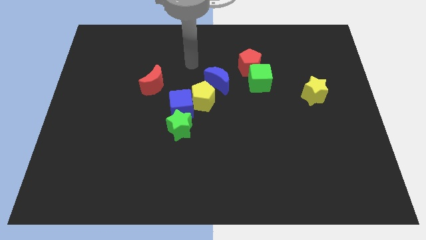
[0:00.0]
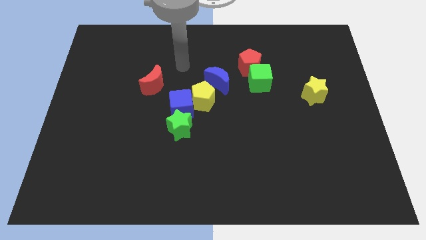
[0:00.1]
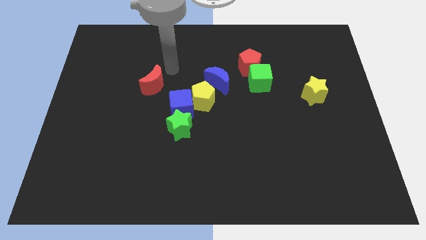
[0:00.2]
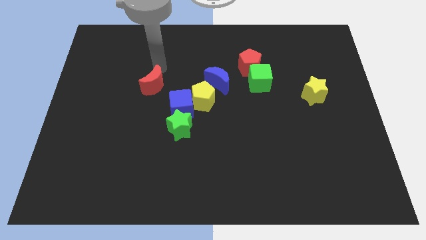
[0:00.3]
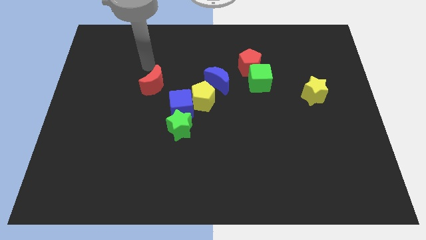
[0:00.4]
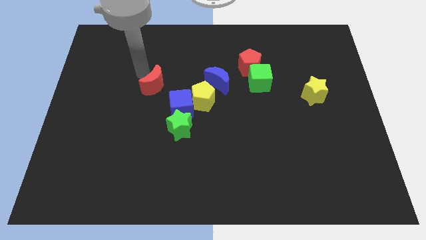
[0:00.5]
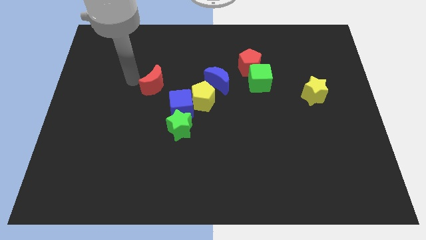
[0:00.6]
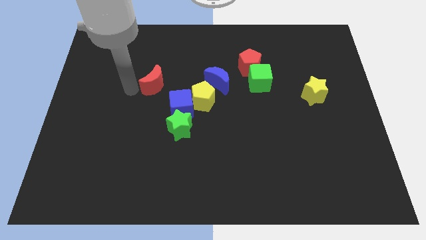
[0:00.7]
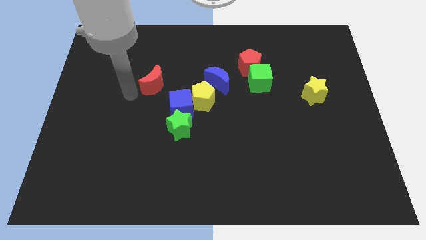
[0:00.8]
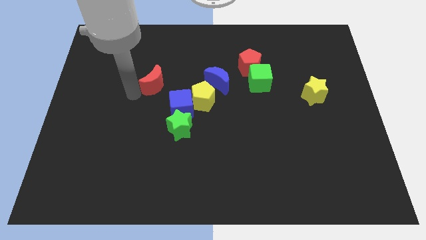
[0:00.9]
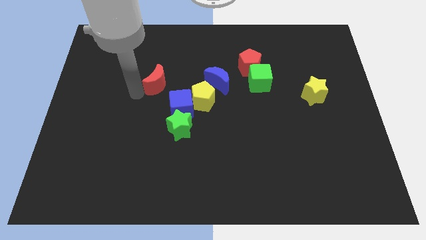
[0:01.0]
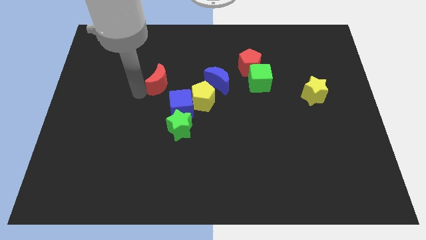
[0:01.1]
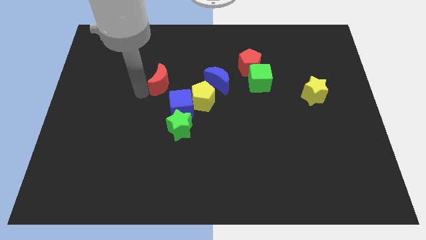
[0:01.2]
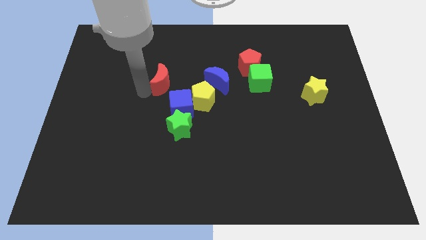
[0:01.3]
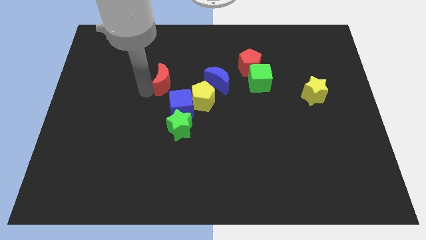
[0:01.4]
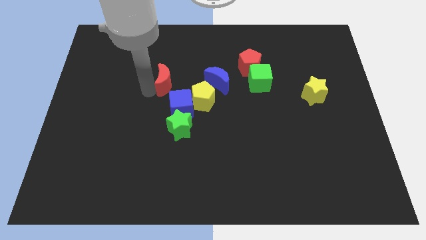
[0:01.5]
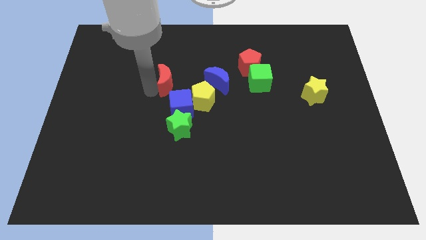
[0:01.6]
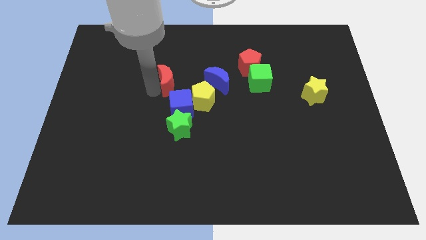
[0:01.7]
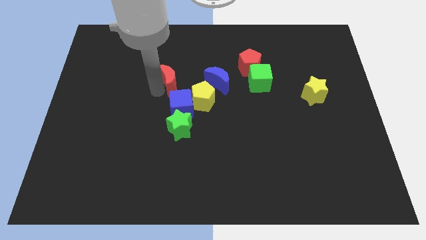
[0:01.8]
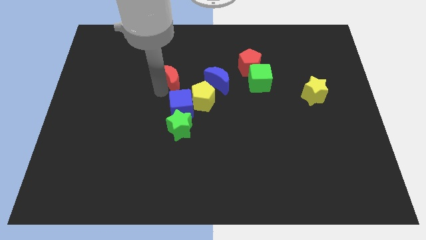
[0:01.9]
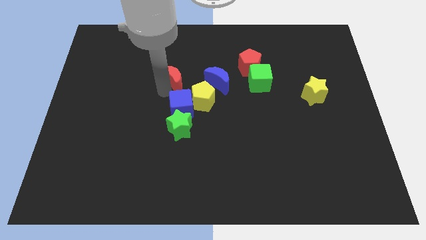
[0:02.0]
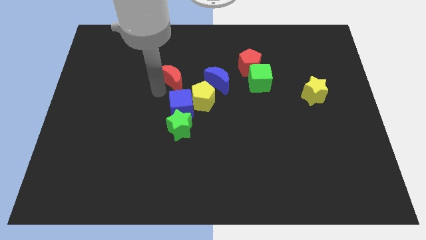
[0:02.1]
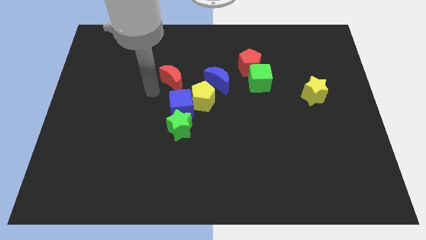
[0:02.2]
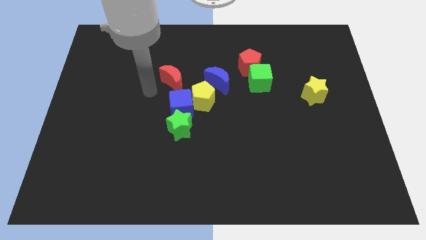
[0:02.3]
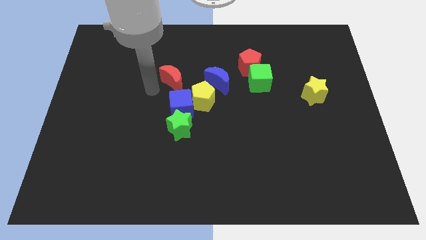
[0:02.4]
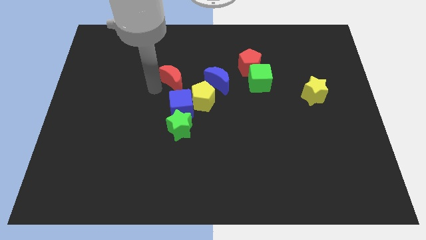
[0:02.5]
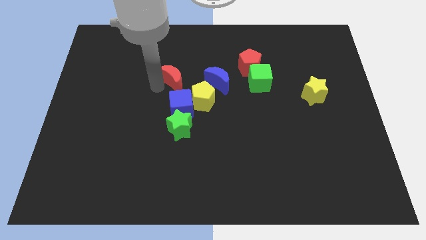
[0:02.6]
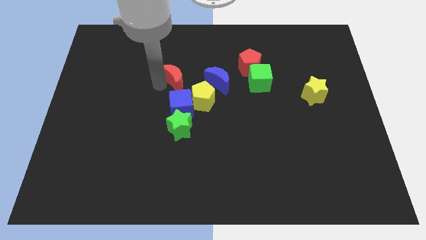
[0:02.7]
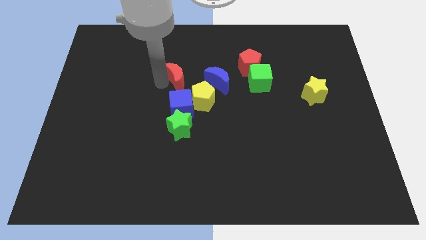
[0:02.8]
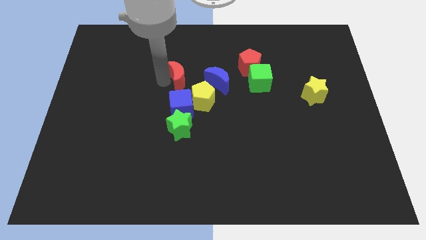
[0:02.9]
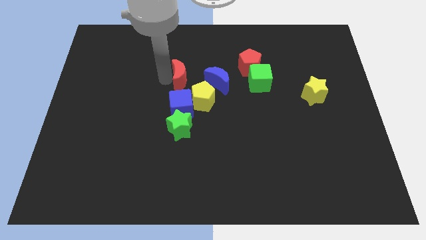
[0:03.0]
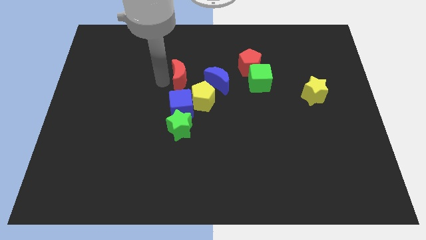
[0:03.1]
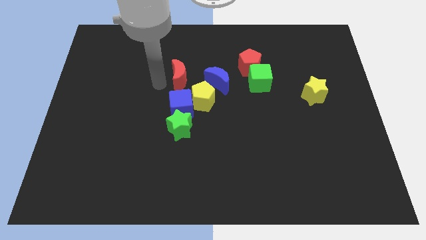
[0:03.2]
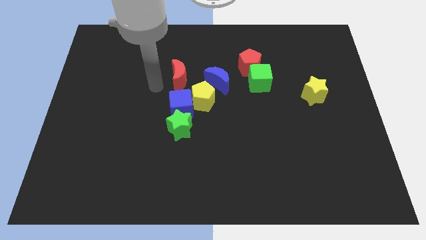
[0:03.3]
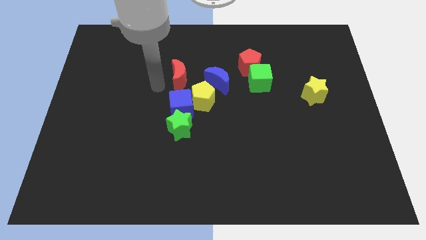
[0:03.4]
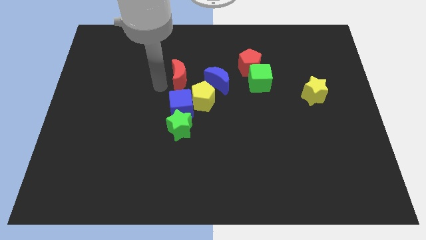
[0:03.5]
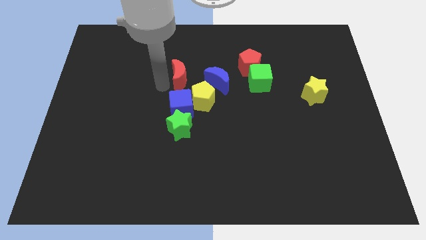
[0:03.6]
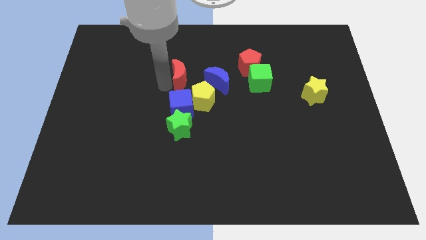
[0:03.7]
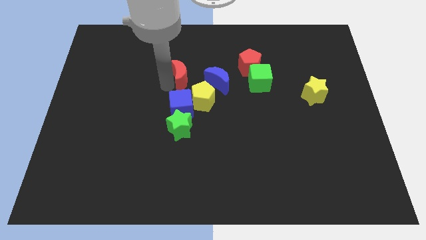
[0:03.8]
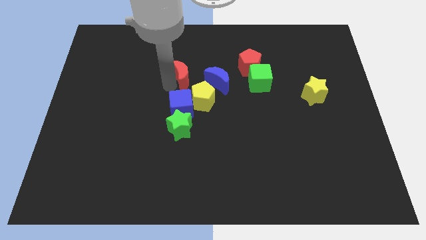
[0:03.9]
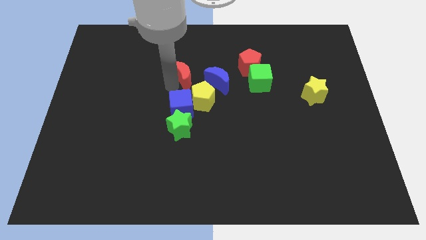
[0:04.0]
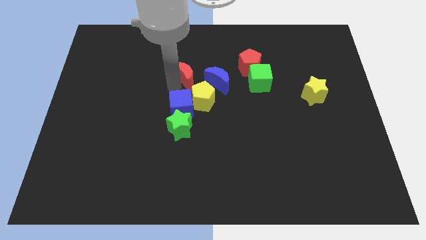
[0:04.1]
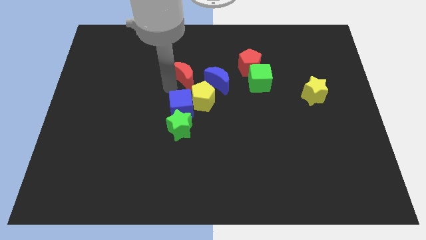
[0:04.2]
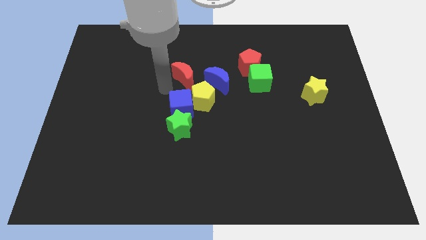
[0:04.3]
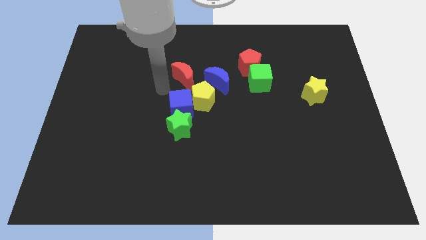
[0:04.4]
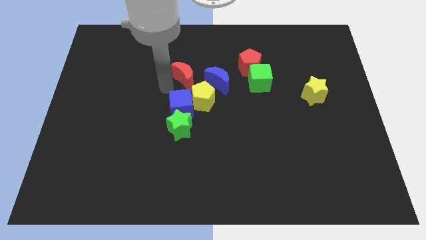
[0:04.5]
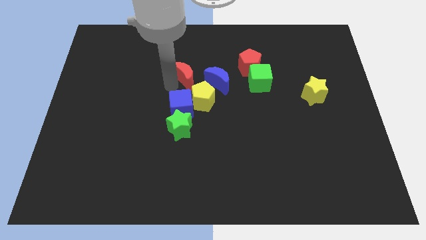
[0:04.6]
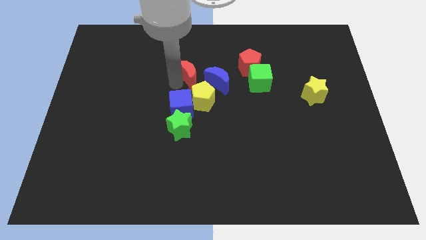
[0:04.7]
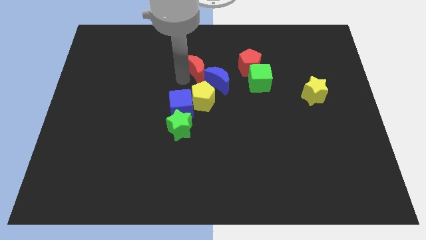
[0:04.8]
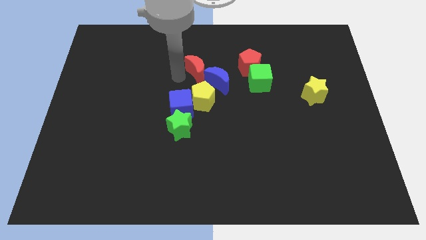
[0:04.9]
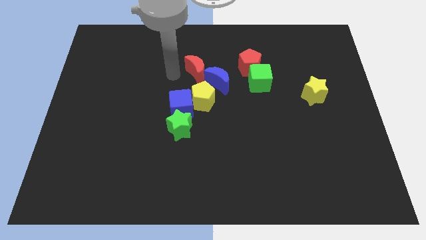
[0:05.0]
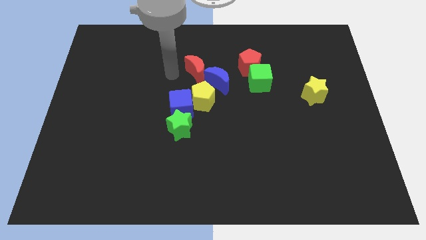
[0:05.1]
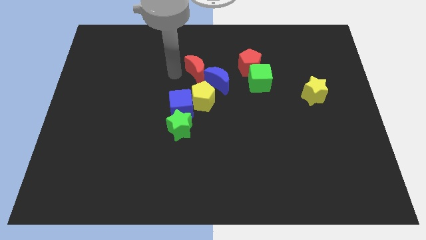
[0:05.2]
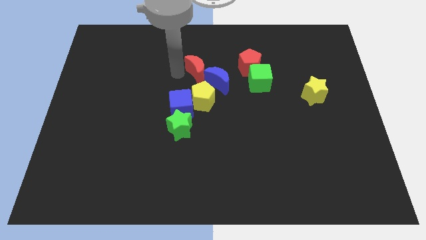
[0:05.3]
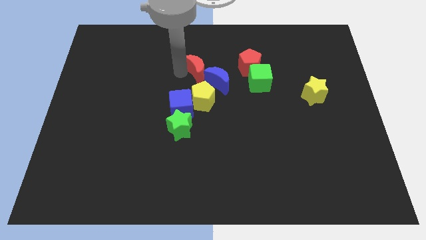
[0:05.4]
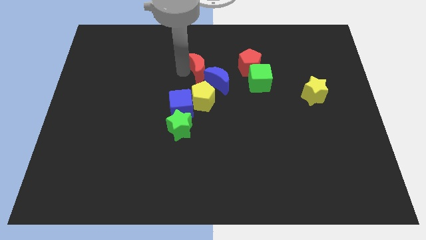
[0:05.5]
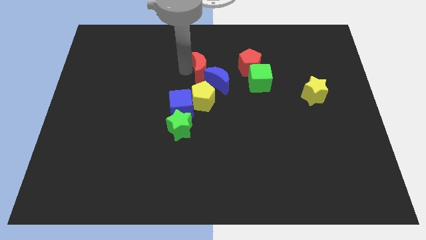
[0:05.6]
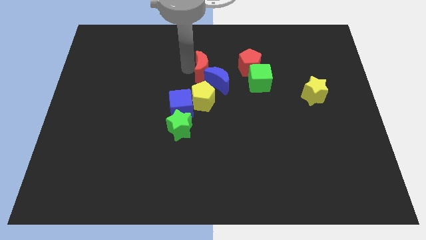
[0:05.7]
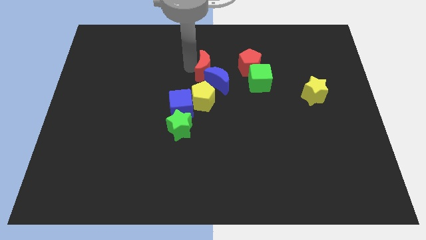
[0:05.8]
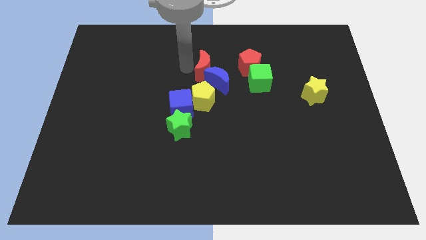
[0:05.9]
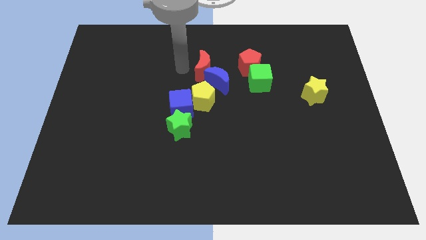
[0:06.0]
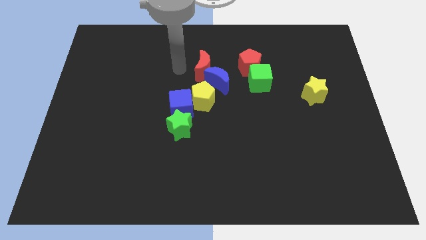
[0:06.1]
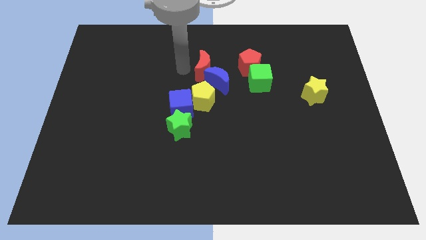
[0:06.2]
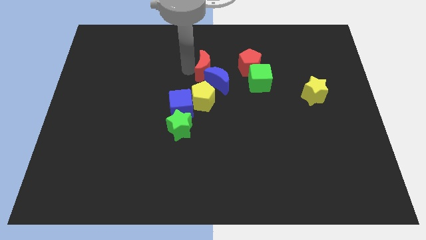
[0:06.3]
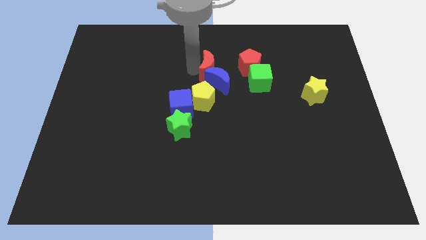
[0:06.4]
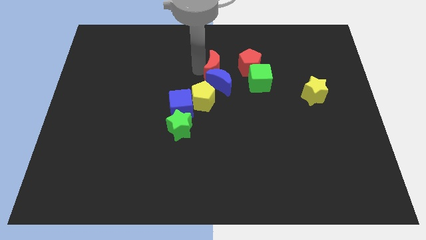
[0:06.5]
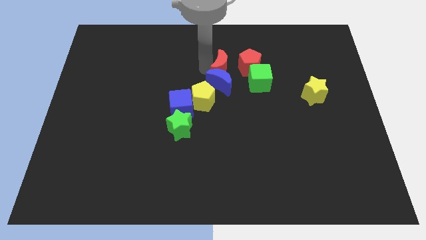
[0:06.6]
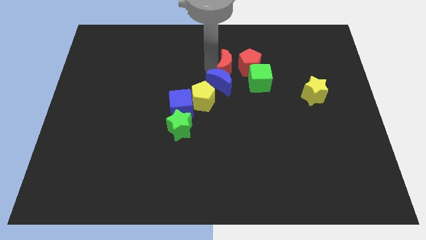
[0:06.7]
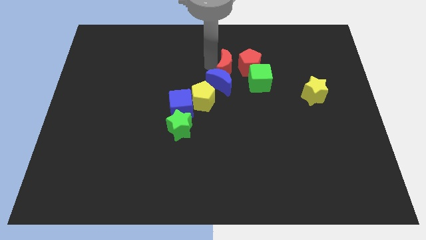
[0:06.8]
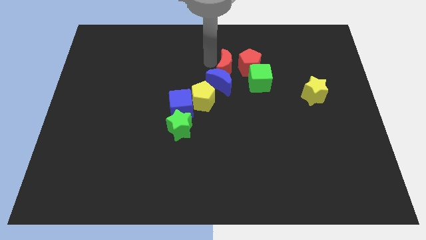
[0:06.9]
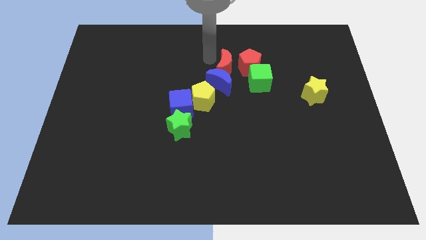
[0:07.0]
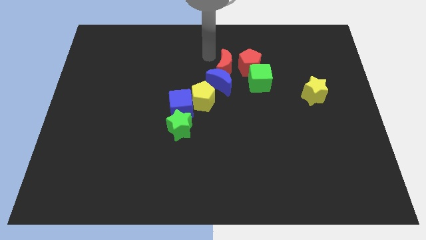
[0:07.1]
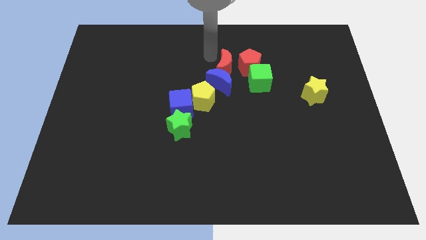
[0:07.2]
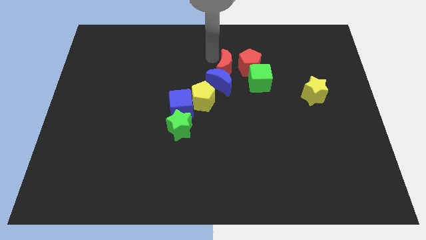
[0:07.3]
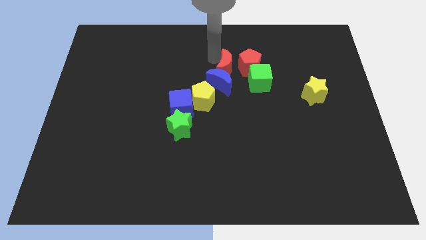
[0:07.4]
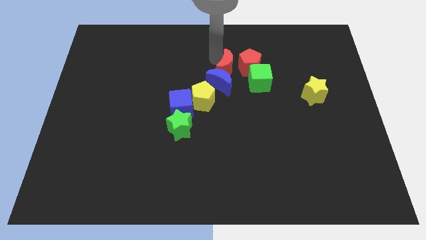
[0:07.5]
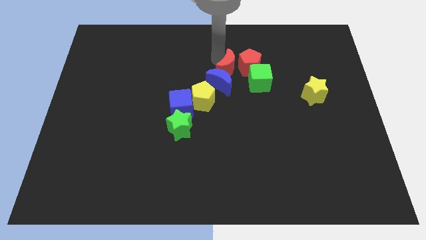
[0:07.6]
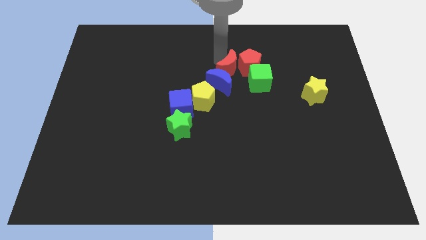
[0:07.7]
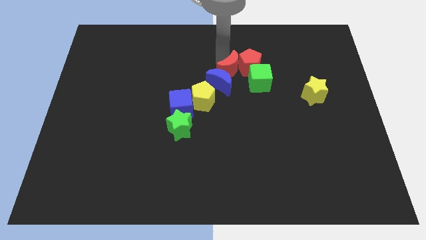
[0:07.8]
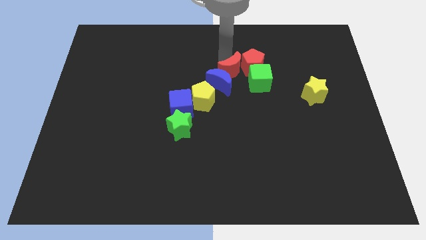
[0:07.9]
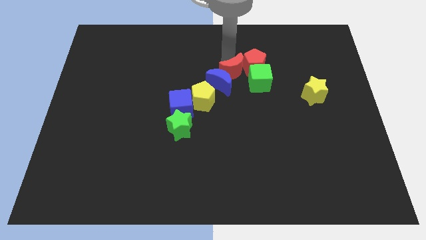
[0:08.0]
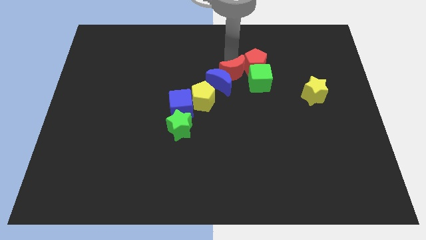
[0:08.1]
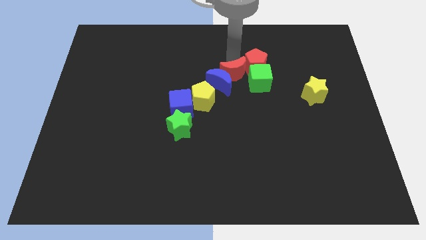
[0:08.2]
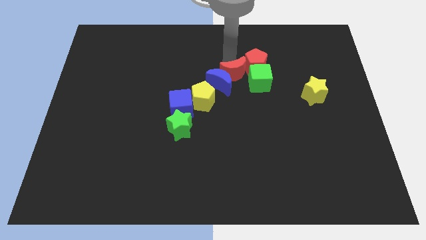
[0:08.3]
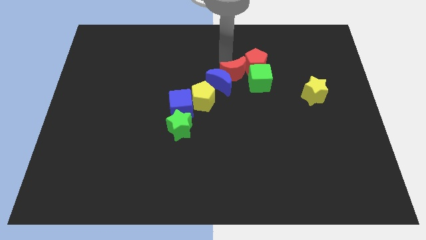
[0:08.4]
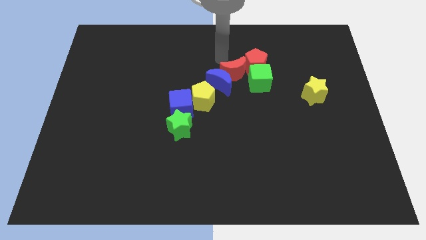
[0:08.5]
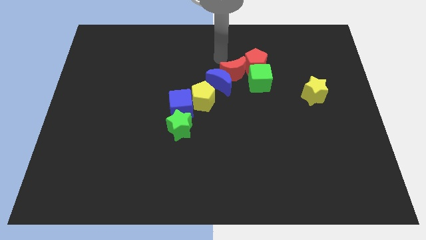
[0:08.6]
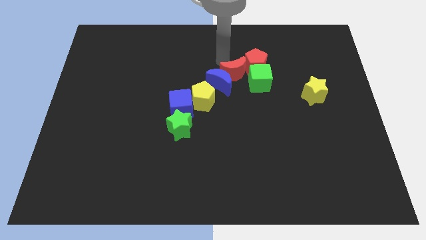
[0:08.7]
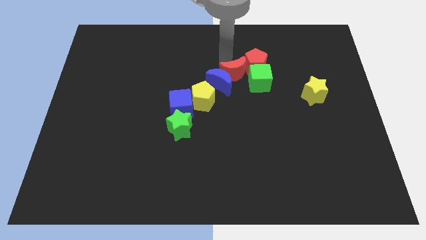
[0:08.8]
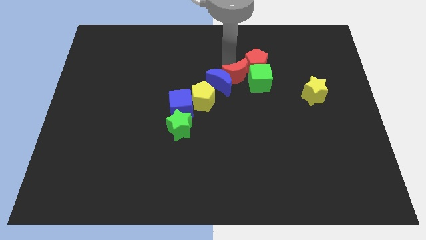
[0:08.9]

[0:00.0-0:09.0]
move the red moon right
